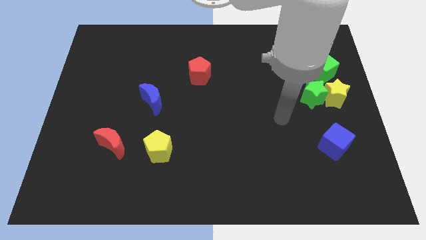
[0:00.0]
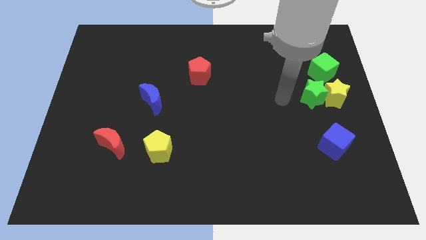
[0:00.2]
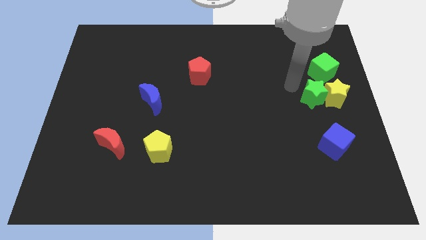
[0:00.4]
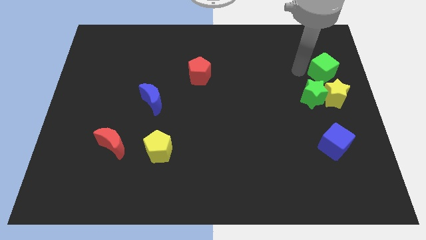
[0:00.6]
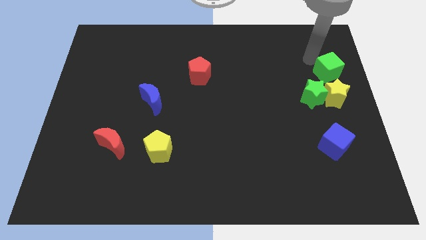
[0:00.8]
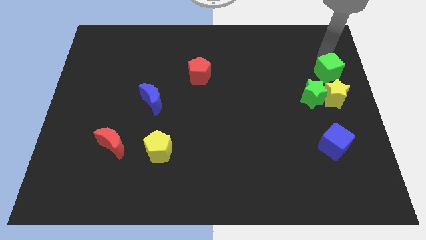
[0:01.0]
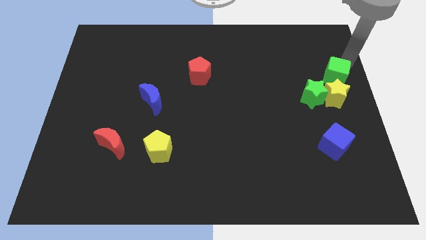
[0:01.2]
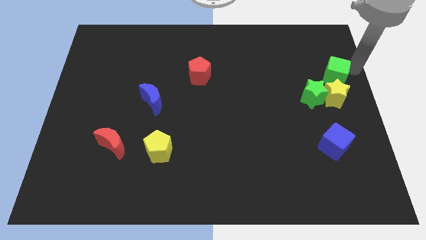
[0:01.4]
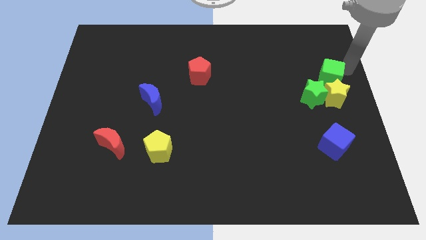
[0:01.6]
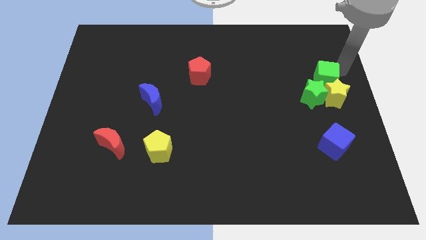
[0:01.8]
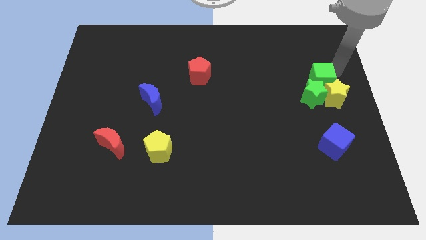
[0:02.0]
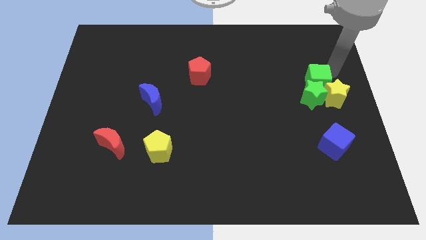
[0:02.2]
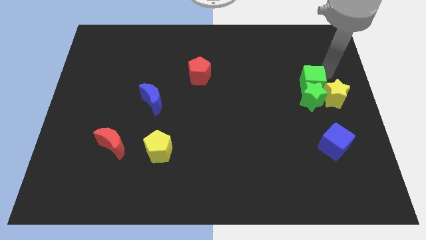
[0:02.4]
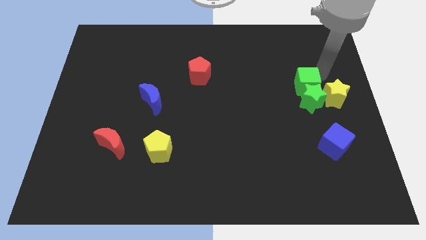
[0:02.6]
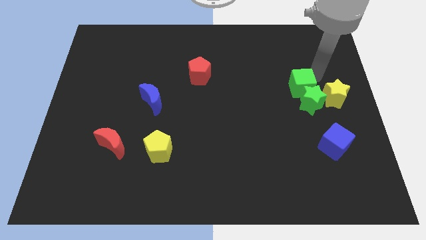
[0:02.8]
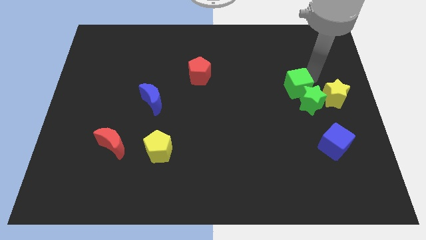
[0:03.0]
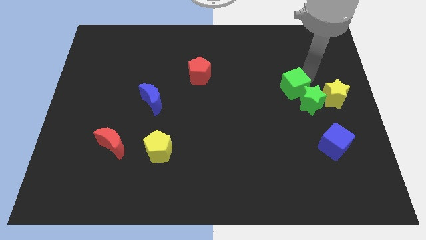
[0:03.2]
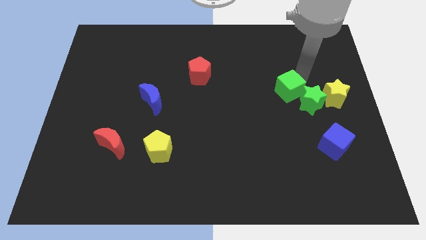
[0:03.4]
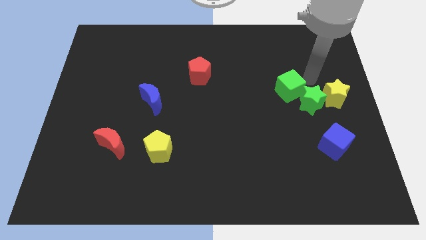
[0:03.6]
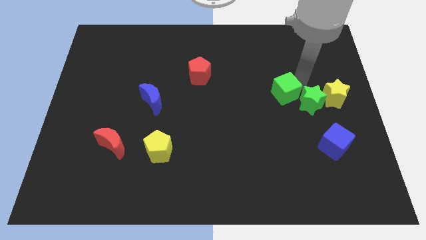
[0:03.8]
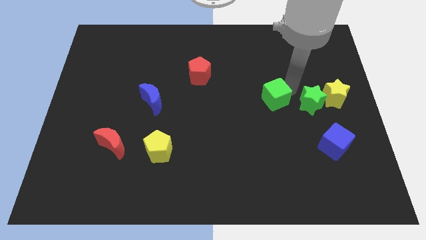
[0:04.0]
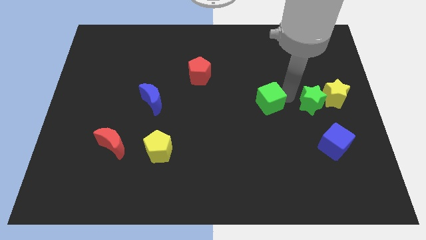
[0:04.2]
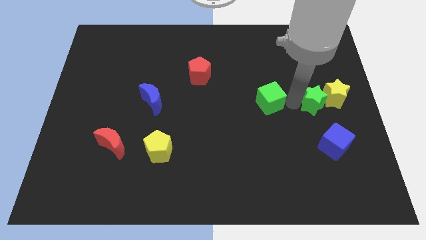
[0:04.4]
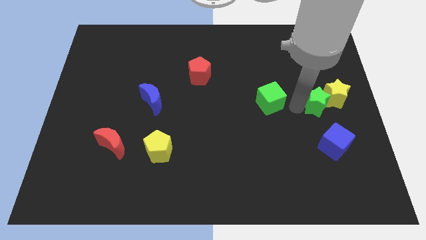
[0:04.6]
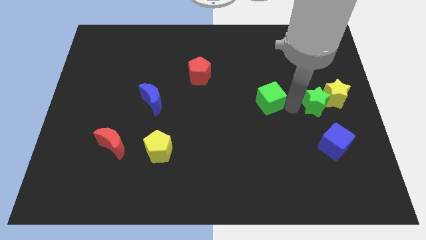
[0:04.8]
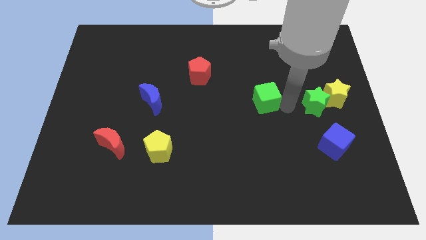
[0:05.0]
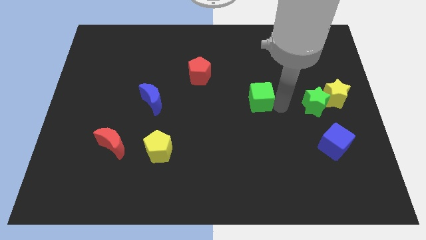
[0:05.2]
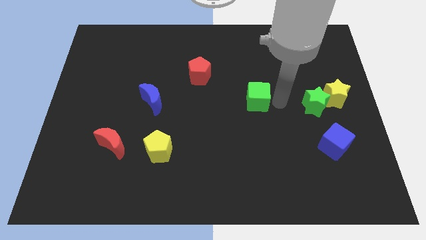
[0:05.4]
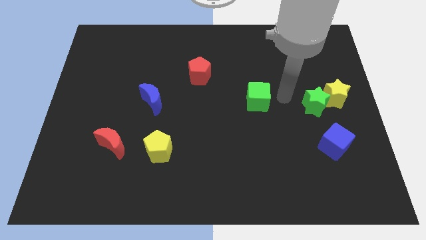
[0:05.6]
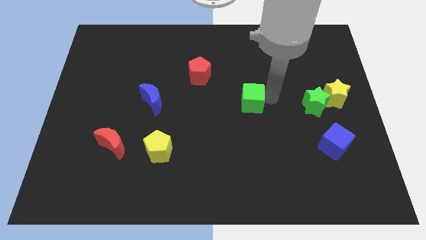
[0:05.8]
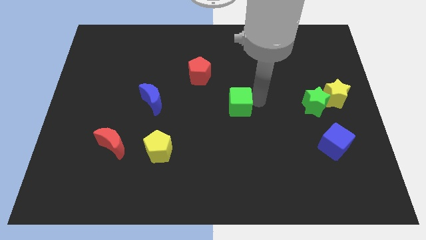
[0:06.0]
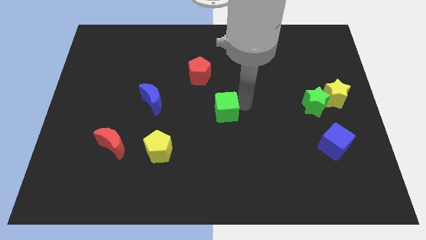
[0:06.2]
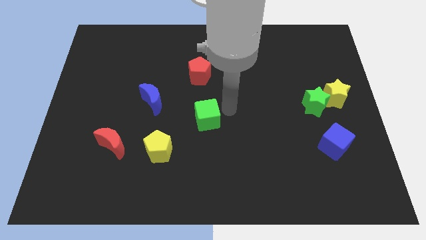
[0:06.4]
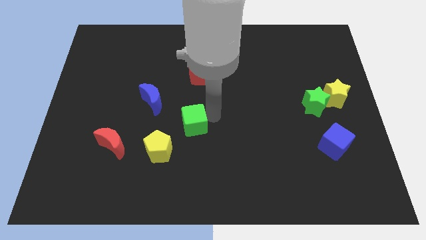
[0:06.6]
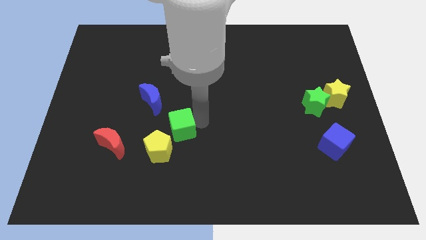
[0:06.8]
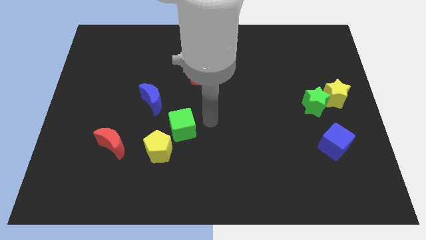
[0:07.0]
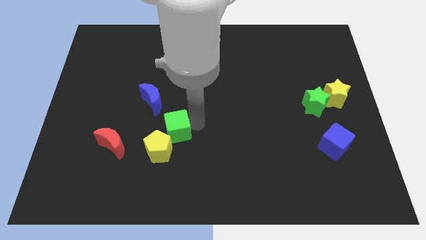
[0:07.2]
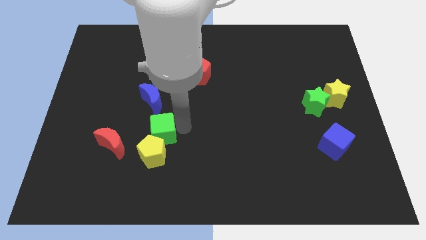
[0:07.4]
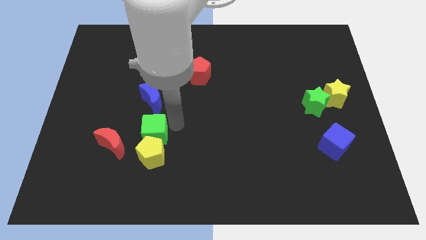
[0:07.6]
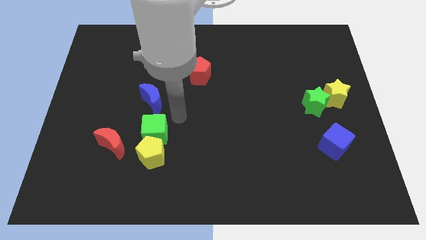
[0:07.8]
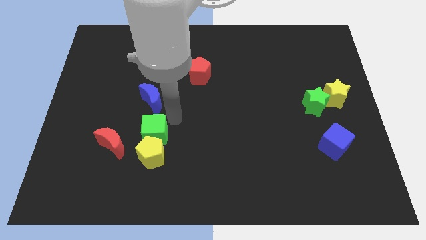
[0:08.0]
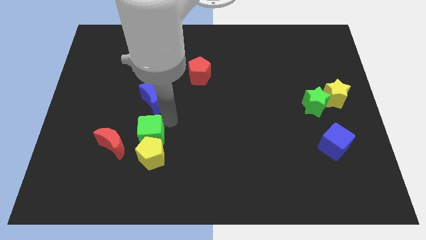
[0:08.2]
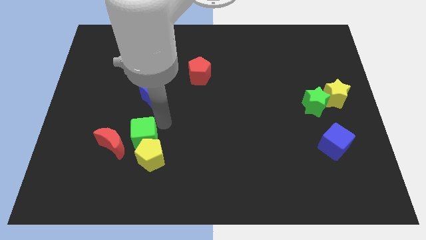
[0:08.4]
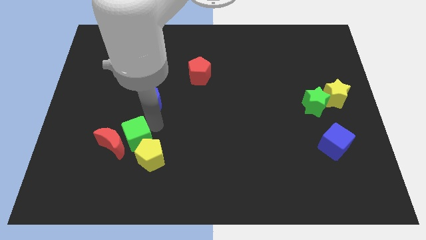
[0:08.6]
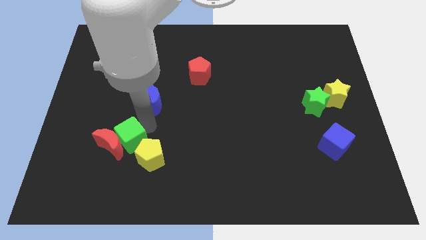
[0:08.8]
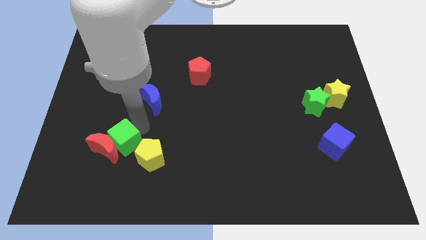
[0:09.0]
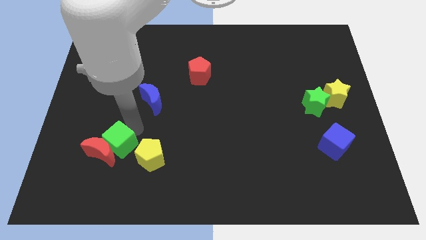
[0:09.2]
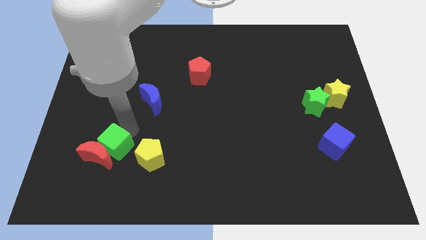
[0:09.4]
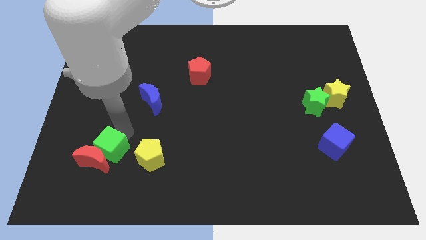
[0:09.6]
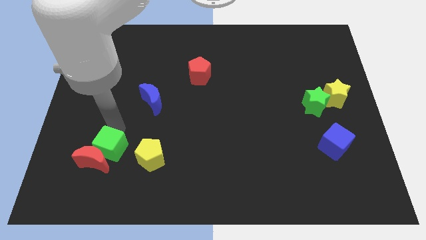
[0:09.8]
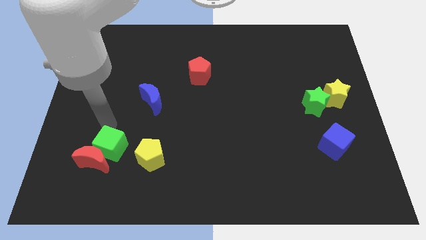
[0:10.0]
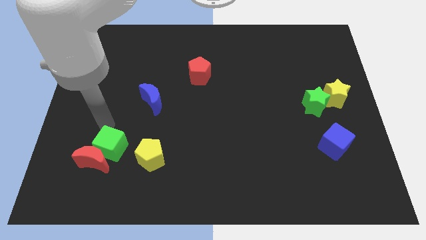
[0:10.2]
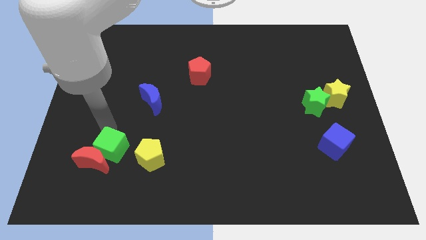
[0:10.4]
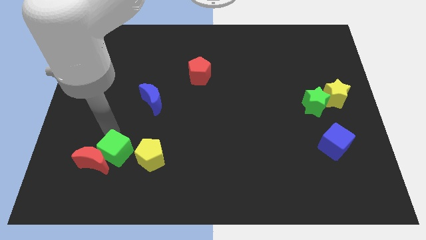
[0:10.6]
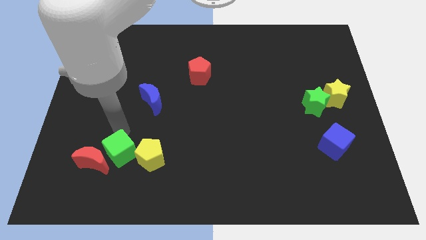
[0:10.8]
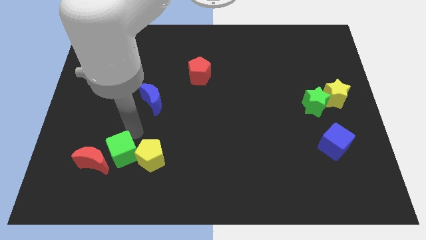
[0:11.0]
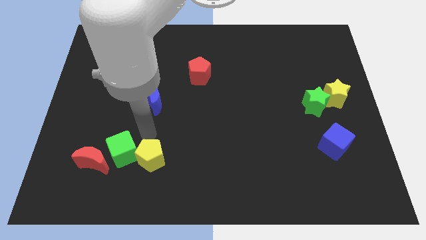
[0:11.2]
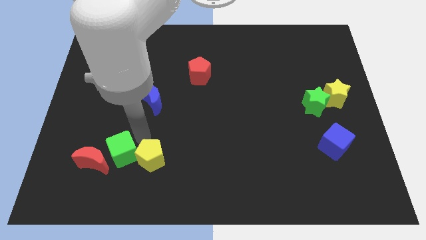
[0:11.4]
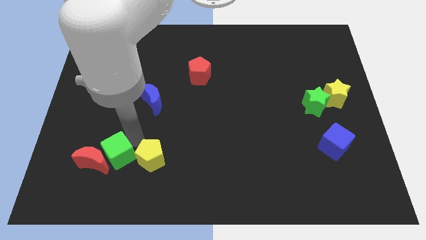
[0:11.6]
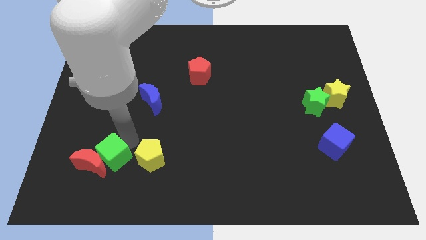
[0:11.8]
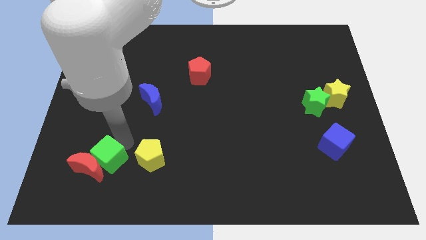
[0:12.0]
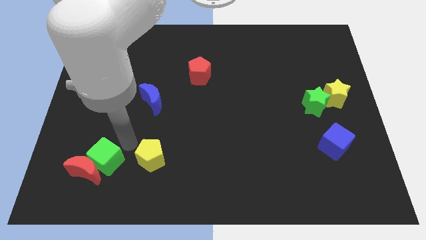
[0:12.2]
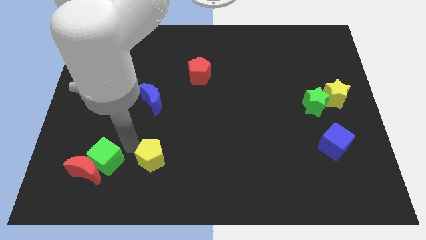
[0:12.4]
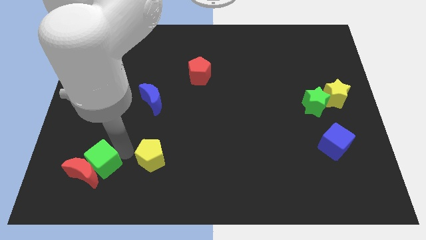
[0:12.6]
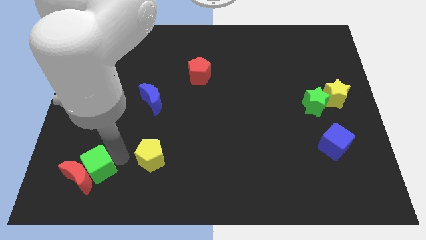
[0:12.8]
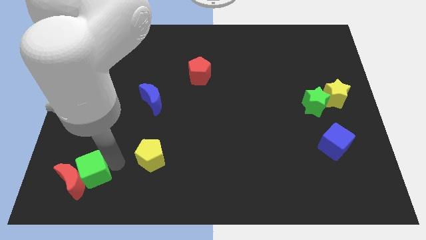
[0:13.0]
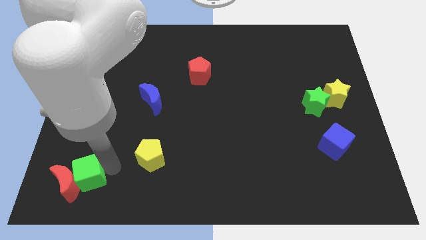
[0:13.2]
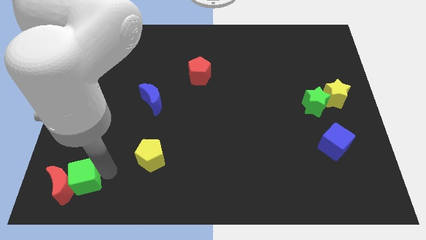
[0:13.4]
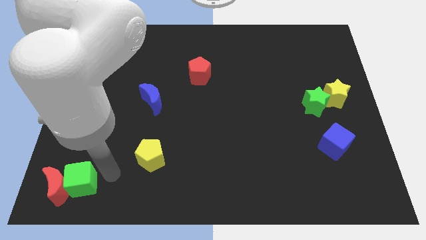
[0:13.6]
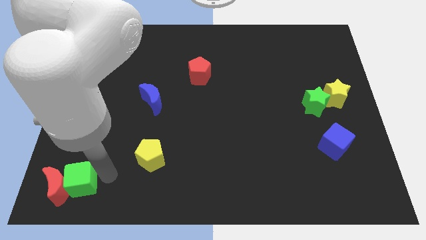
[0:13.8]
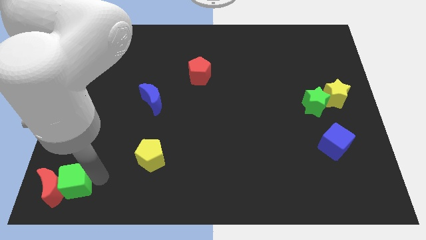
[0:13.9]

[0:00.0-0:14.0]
move the green cube to the bottom left
